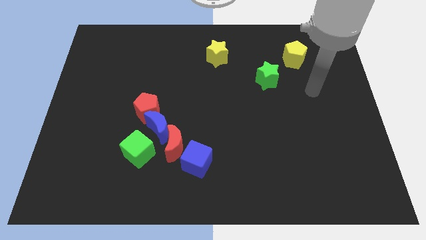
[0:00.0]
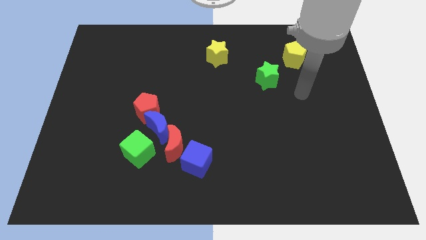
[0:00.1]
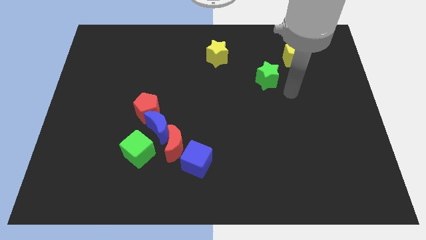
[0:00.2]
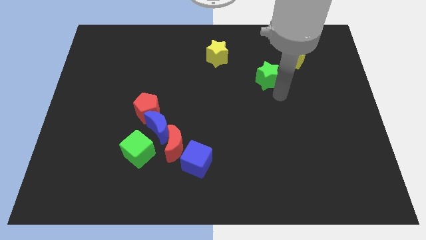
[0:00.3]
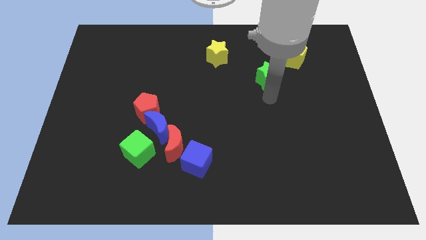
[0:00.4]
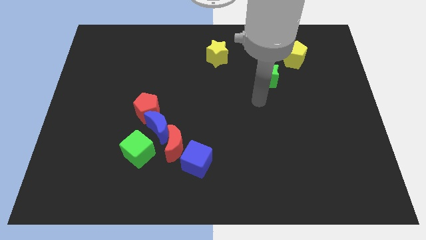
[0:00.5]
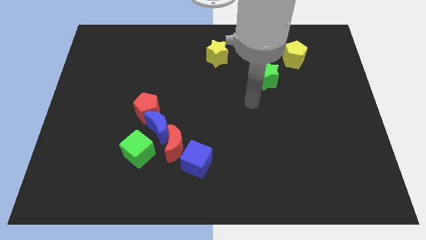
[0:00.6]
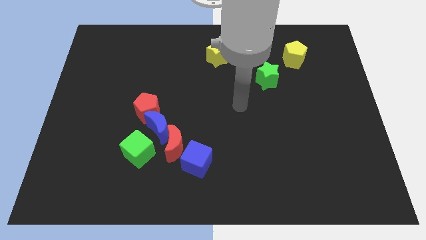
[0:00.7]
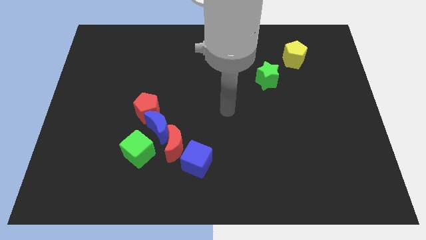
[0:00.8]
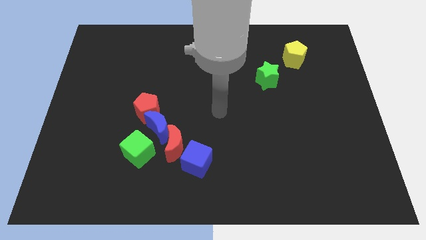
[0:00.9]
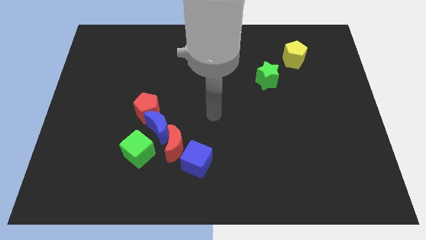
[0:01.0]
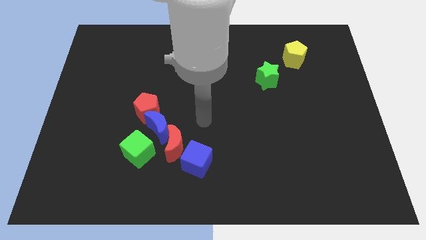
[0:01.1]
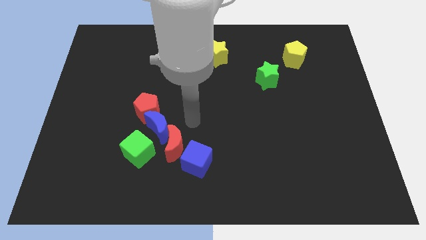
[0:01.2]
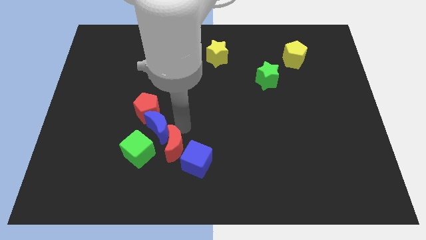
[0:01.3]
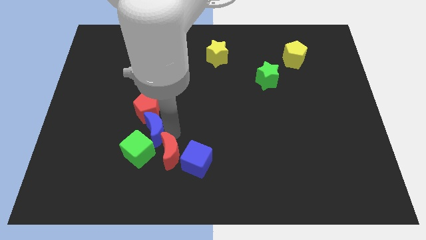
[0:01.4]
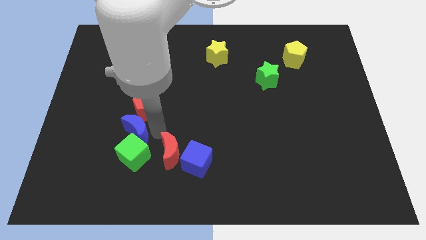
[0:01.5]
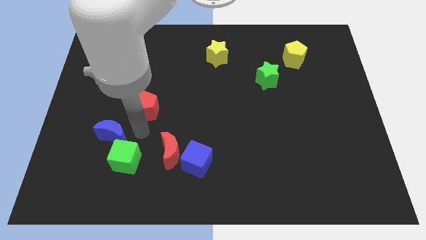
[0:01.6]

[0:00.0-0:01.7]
pull the red pentagon apart from the blue moon

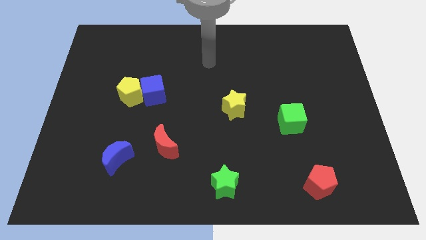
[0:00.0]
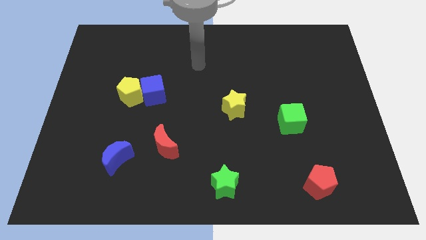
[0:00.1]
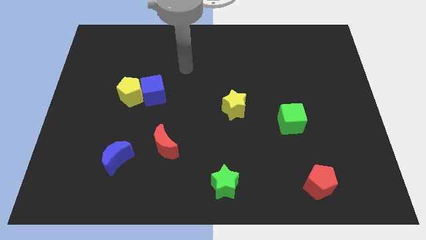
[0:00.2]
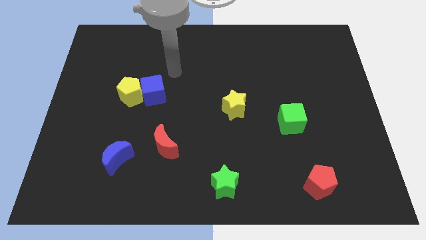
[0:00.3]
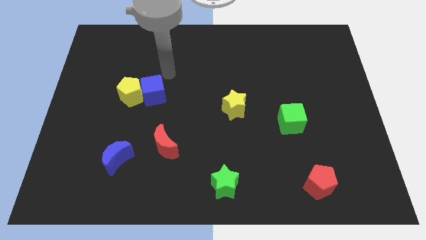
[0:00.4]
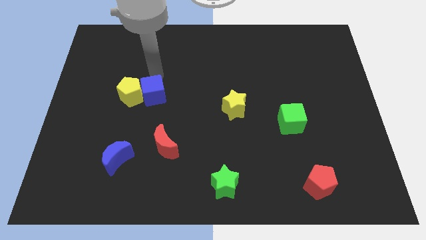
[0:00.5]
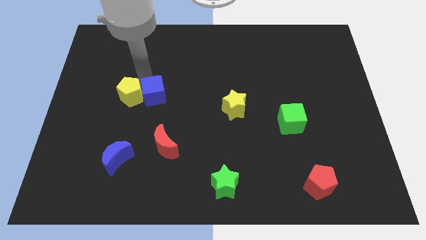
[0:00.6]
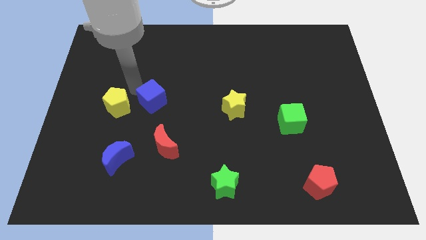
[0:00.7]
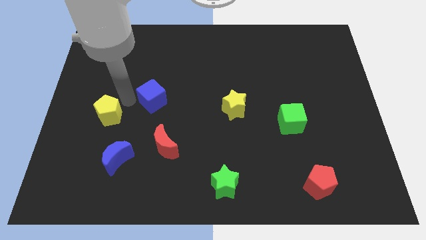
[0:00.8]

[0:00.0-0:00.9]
move the blue cube away from the yellow pentagon

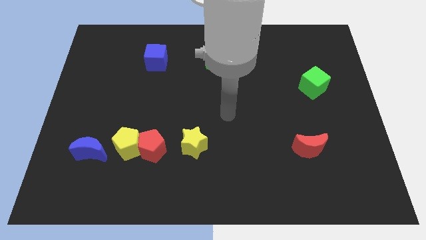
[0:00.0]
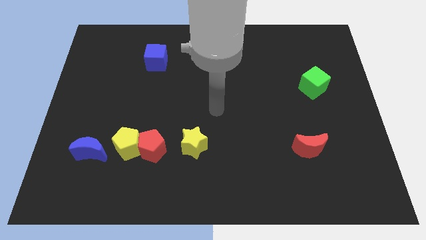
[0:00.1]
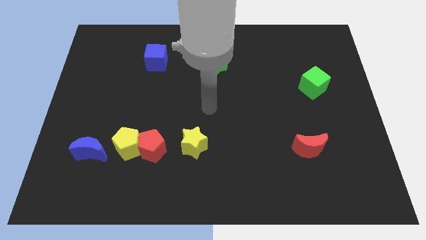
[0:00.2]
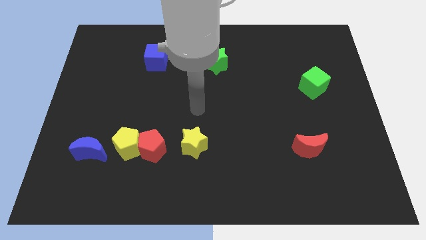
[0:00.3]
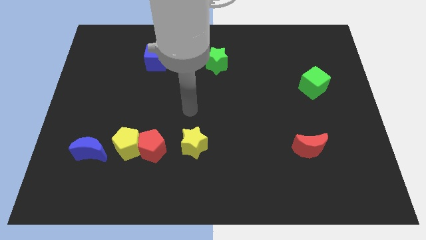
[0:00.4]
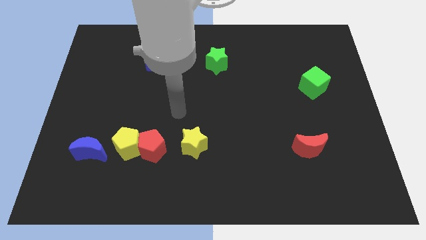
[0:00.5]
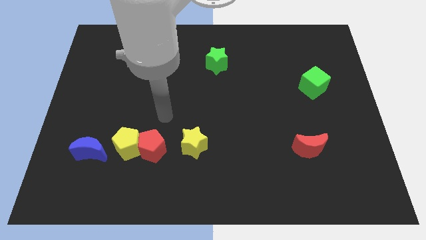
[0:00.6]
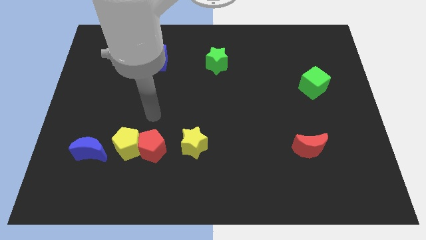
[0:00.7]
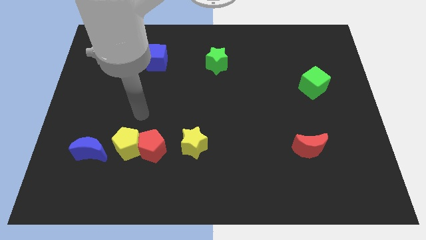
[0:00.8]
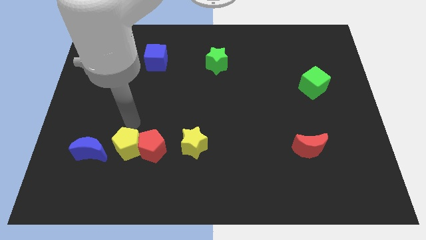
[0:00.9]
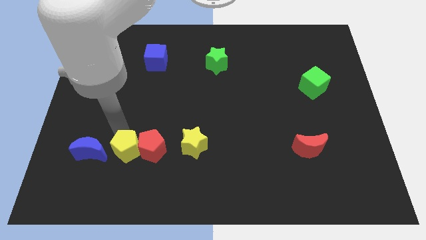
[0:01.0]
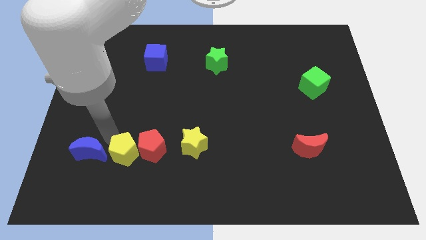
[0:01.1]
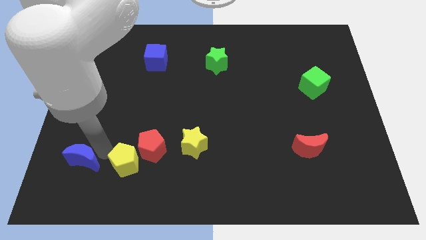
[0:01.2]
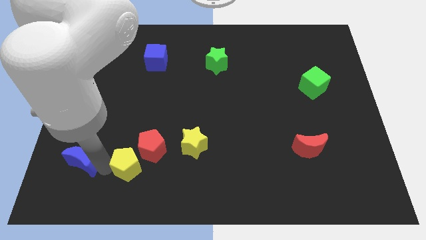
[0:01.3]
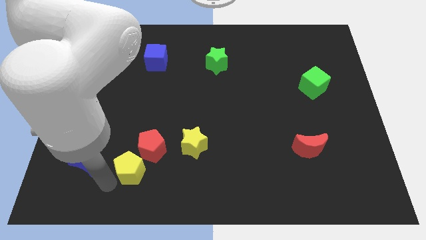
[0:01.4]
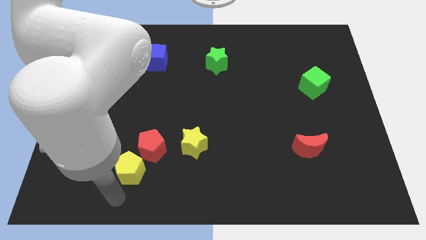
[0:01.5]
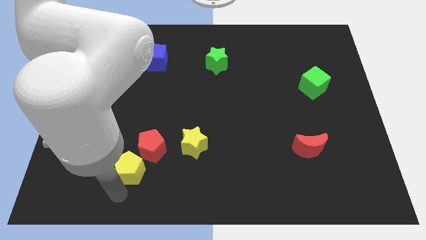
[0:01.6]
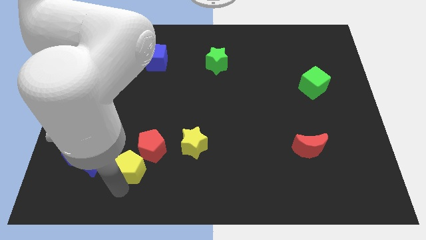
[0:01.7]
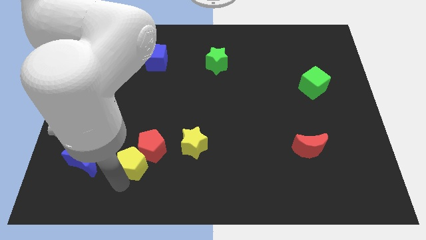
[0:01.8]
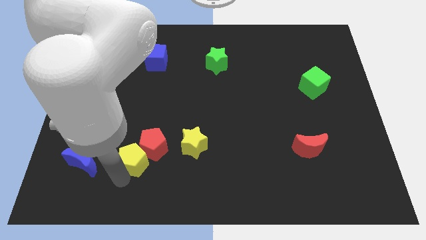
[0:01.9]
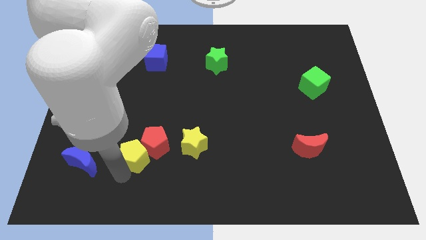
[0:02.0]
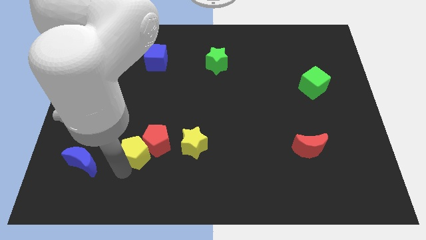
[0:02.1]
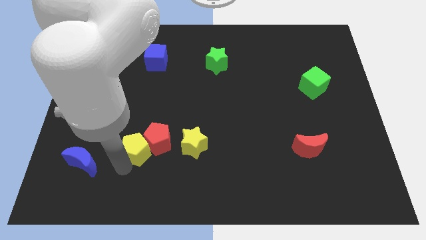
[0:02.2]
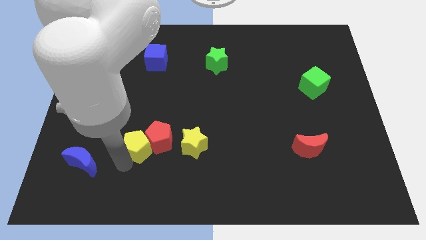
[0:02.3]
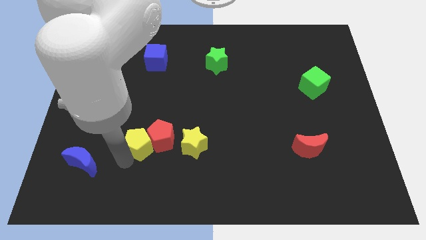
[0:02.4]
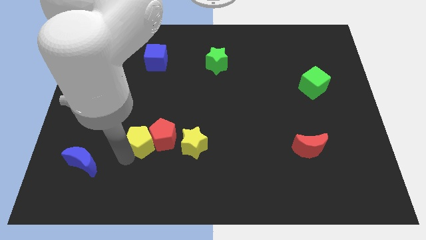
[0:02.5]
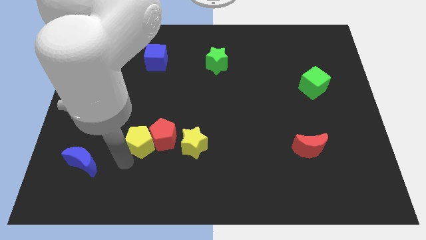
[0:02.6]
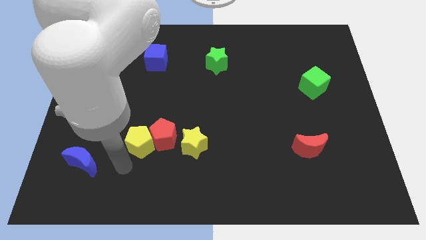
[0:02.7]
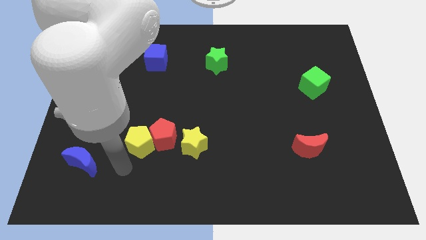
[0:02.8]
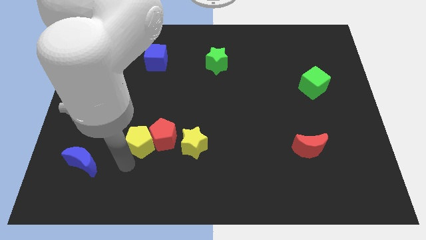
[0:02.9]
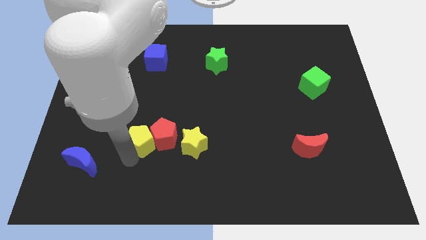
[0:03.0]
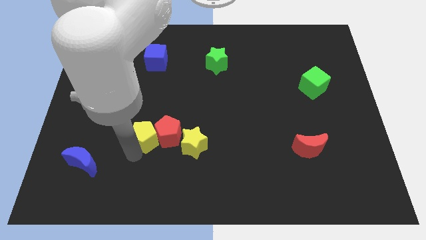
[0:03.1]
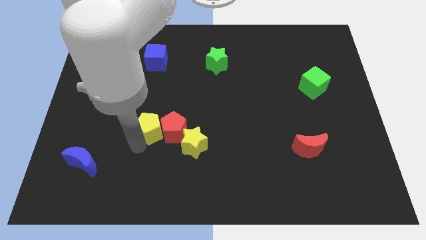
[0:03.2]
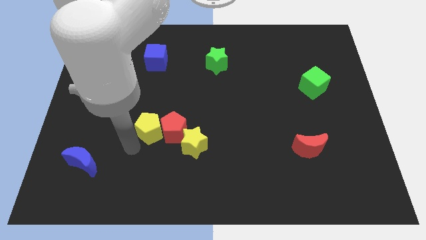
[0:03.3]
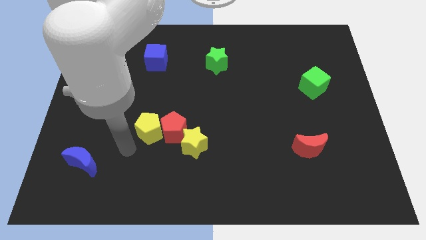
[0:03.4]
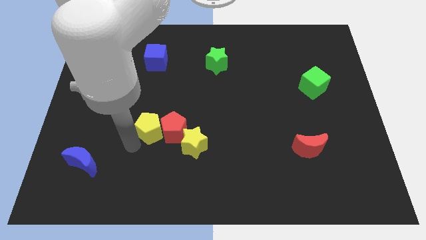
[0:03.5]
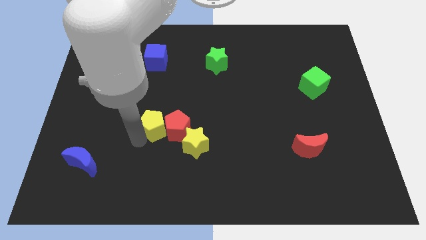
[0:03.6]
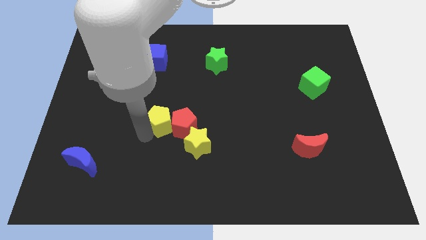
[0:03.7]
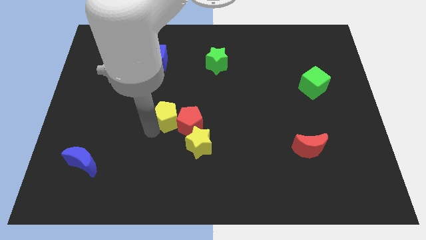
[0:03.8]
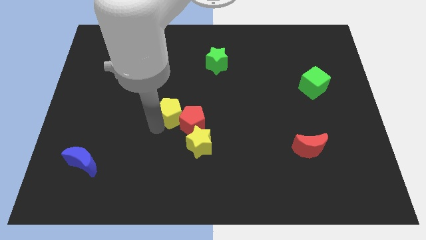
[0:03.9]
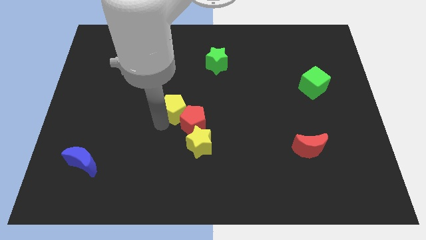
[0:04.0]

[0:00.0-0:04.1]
separate the yellow pentagon from the red pentagon and blue moon

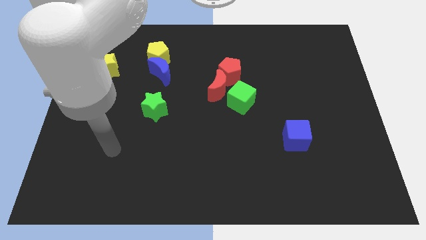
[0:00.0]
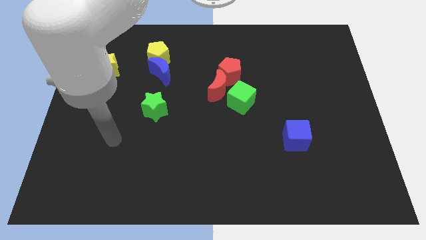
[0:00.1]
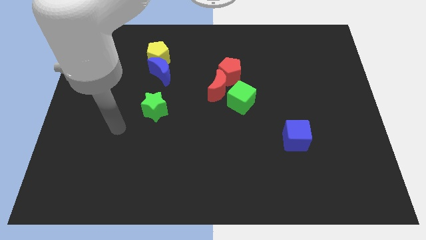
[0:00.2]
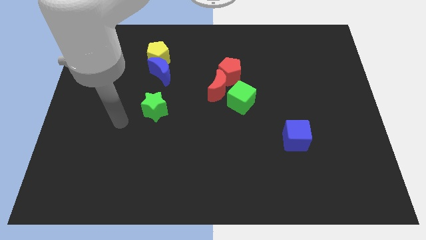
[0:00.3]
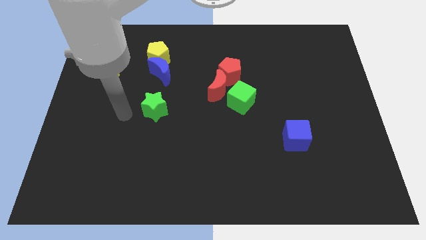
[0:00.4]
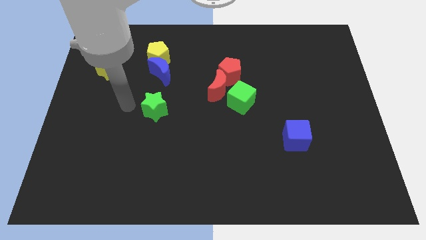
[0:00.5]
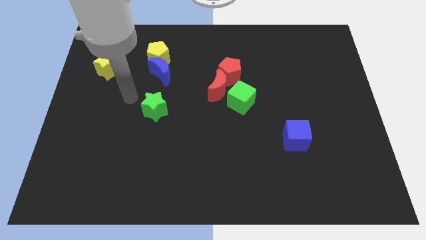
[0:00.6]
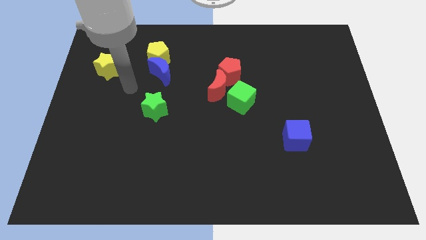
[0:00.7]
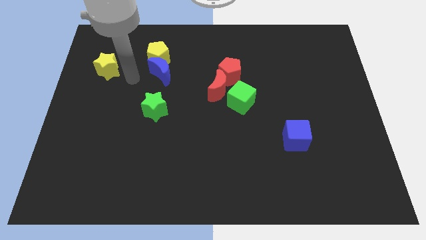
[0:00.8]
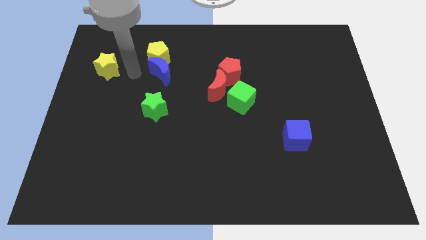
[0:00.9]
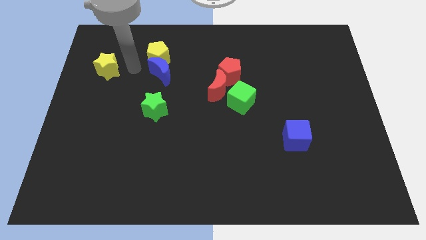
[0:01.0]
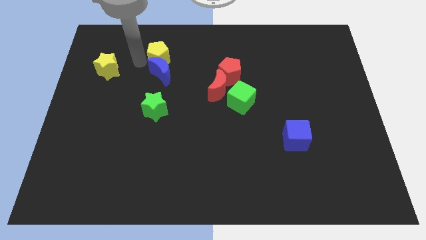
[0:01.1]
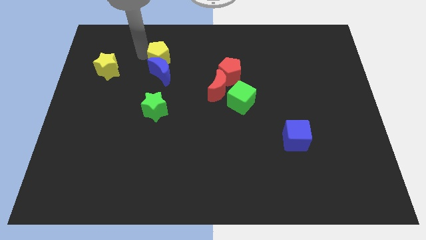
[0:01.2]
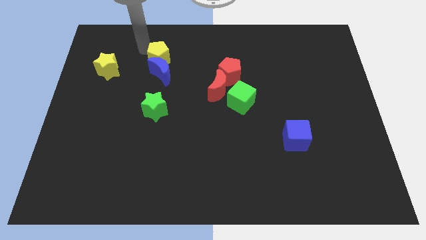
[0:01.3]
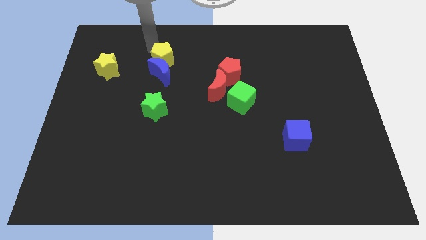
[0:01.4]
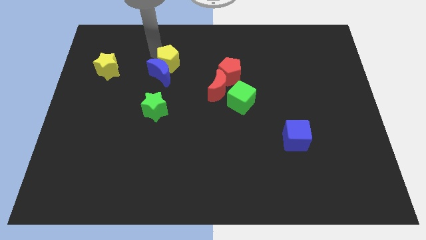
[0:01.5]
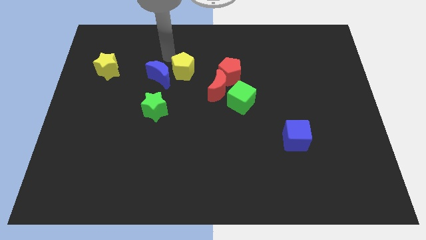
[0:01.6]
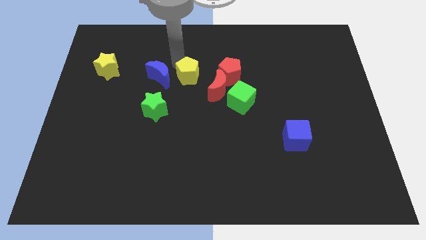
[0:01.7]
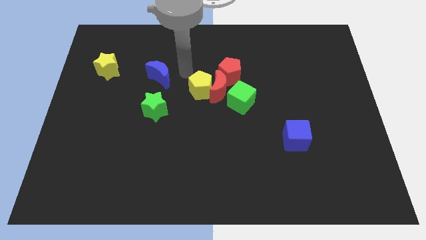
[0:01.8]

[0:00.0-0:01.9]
pull the blue moon apart from the yellow pentagon

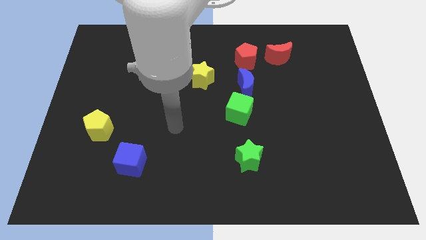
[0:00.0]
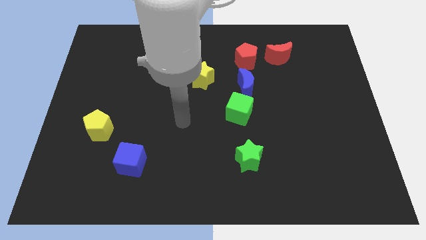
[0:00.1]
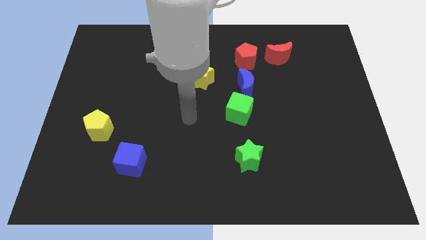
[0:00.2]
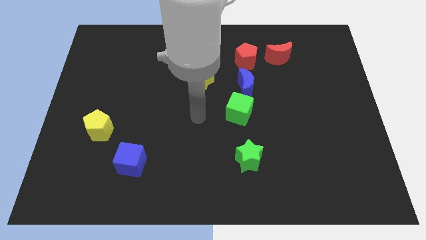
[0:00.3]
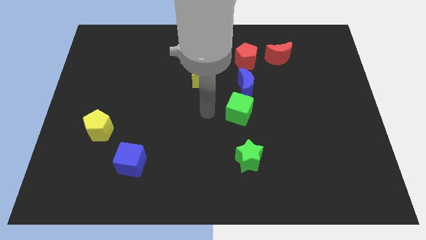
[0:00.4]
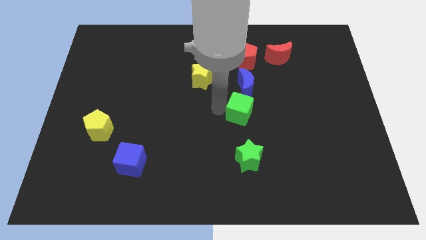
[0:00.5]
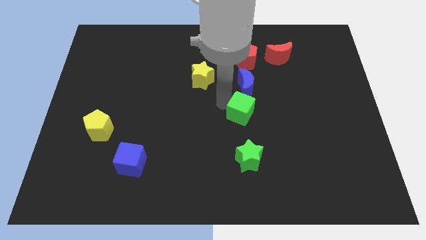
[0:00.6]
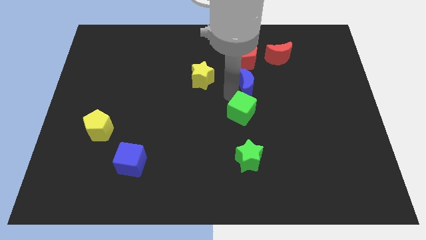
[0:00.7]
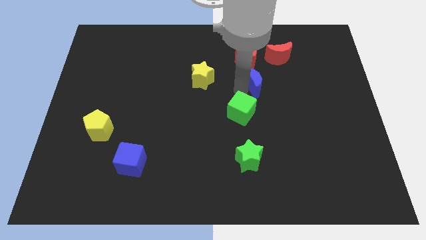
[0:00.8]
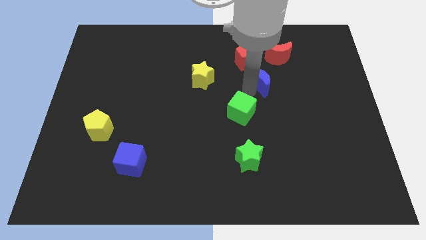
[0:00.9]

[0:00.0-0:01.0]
pull the green cube apart from the blue moon
